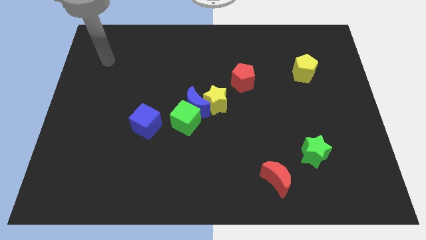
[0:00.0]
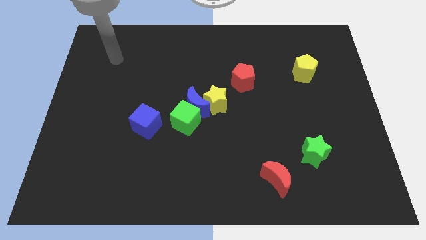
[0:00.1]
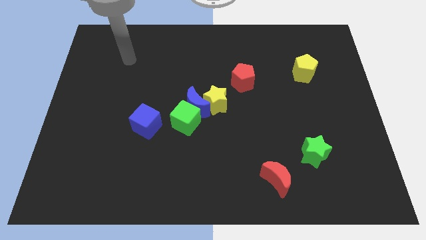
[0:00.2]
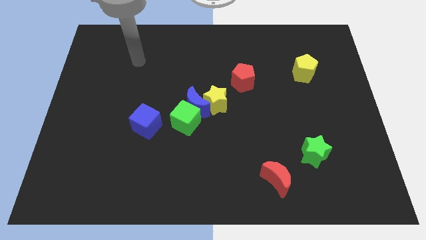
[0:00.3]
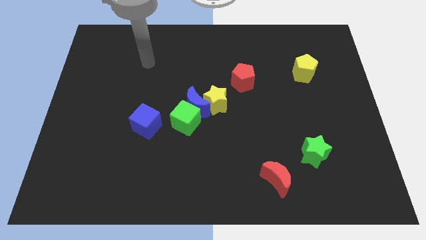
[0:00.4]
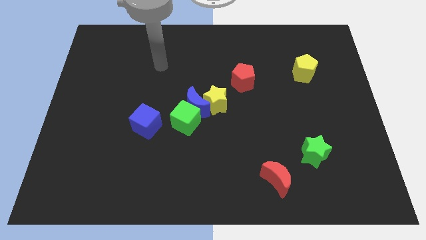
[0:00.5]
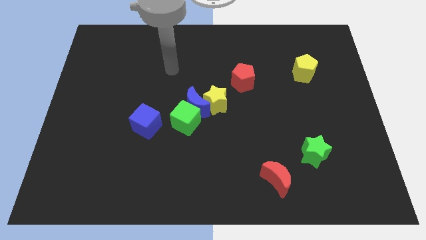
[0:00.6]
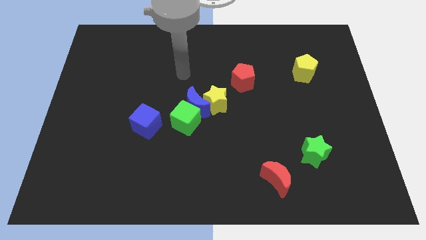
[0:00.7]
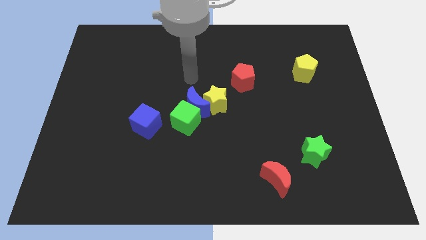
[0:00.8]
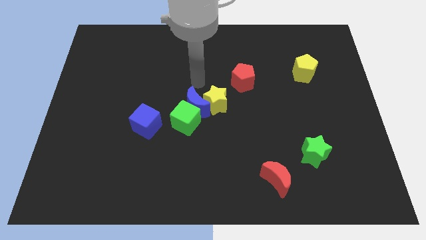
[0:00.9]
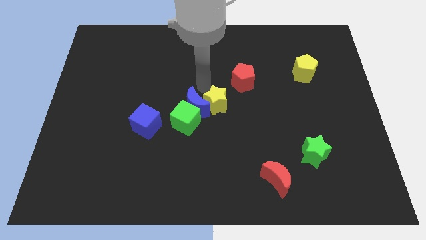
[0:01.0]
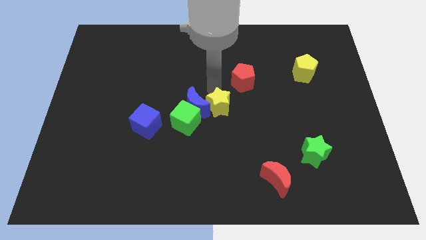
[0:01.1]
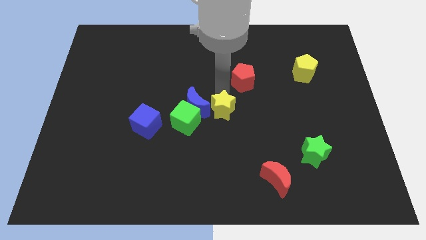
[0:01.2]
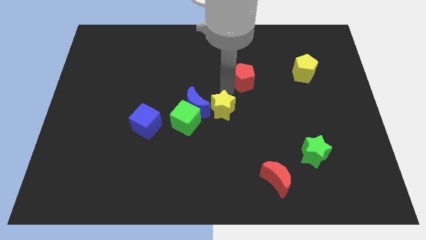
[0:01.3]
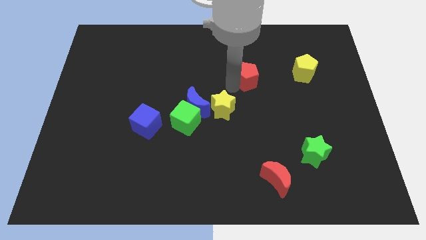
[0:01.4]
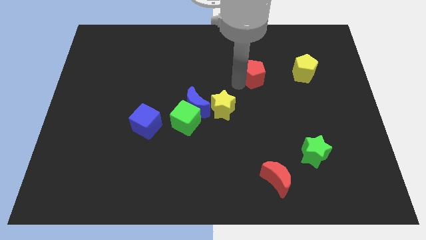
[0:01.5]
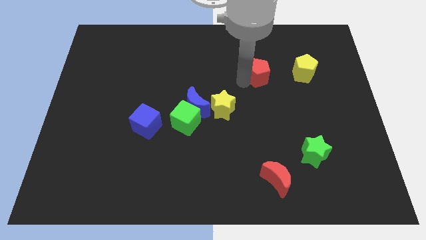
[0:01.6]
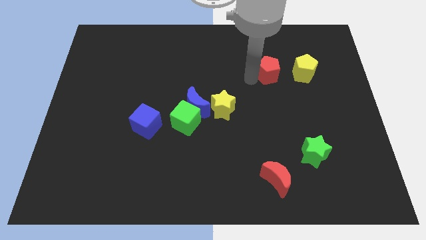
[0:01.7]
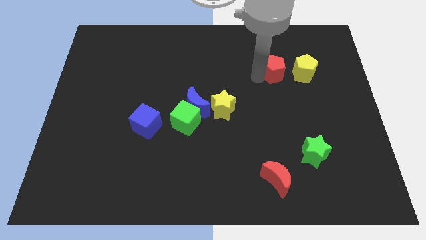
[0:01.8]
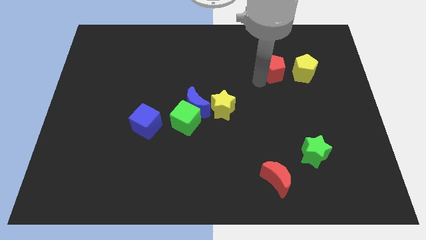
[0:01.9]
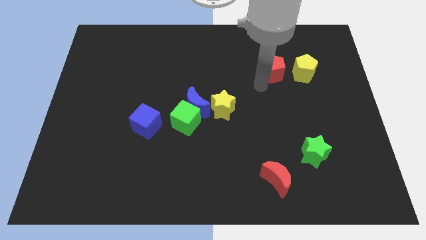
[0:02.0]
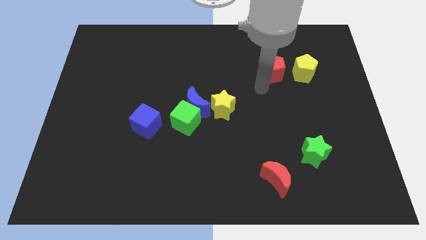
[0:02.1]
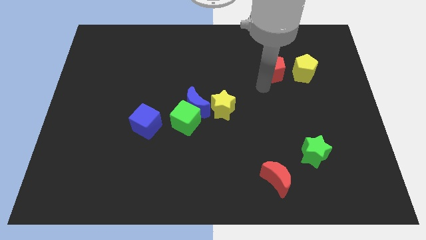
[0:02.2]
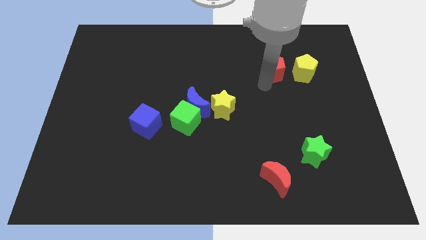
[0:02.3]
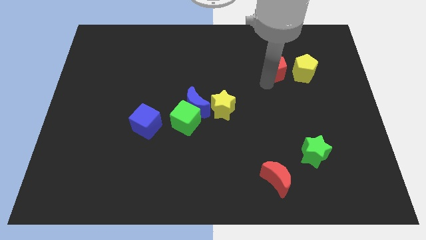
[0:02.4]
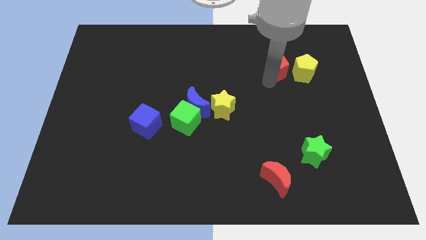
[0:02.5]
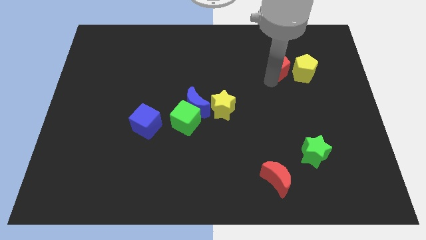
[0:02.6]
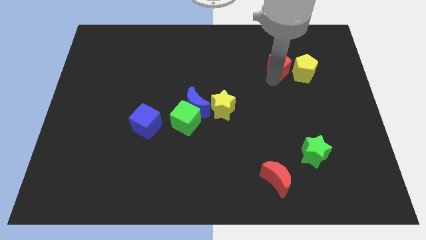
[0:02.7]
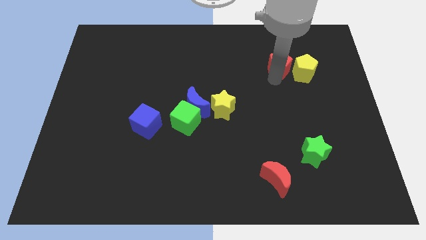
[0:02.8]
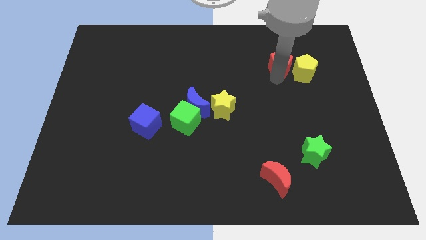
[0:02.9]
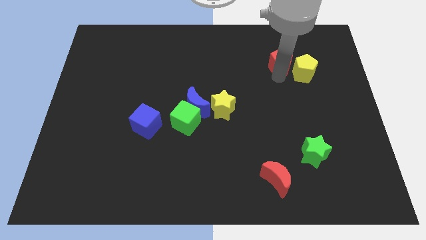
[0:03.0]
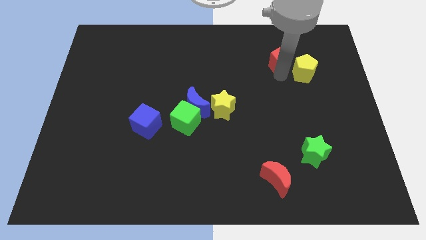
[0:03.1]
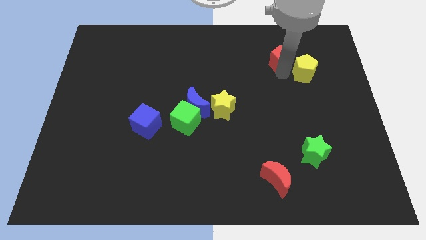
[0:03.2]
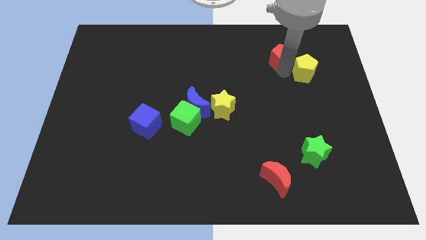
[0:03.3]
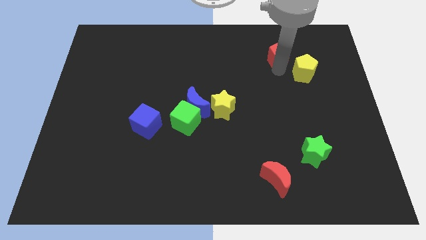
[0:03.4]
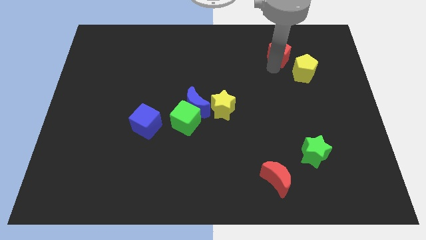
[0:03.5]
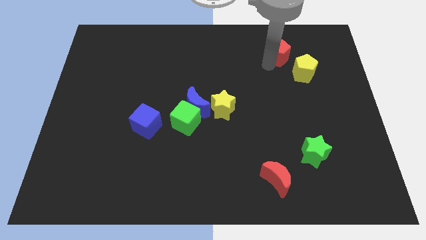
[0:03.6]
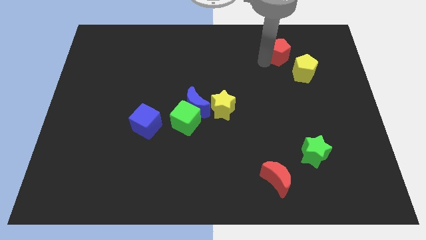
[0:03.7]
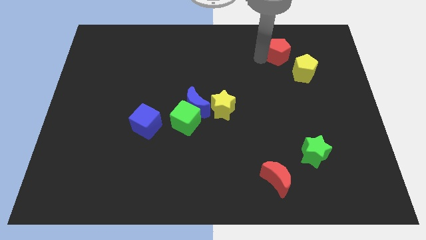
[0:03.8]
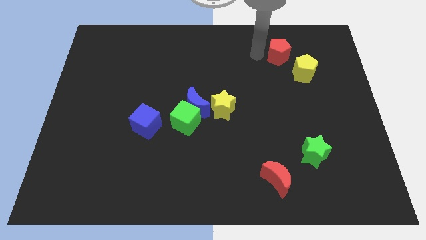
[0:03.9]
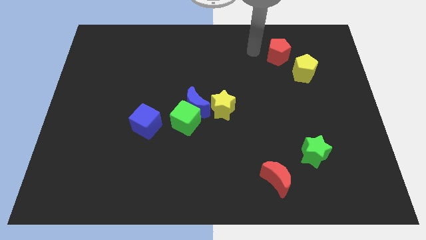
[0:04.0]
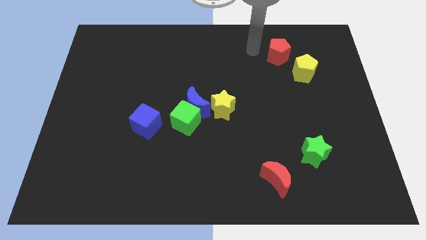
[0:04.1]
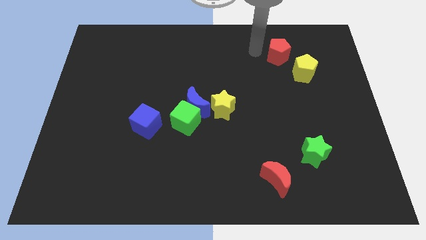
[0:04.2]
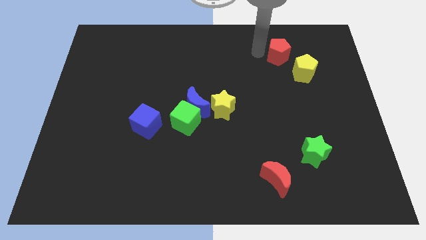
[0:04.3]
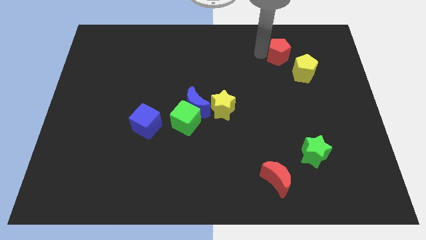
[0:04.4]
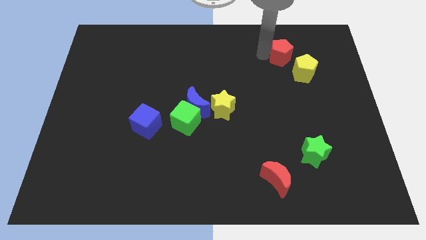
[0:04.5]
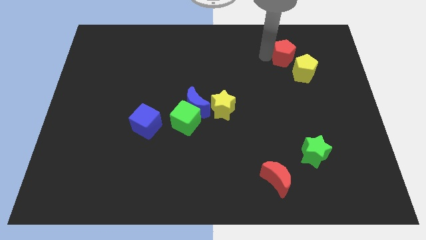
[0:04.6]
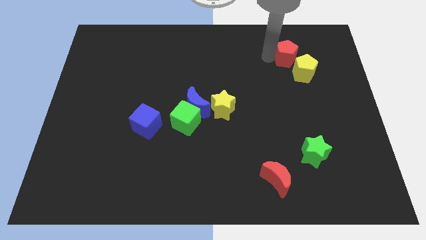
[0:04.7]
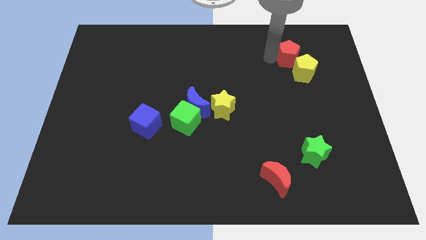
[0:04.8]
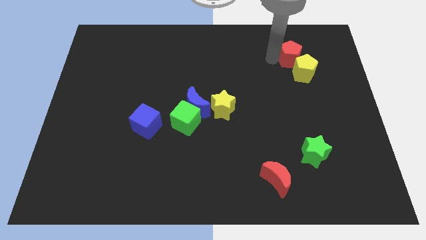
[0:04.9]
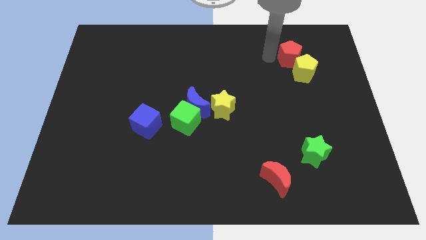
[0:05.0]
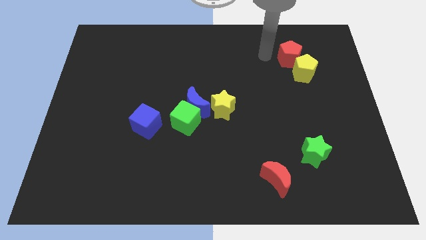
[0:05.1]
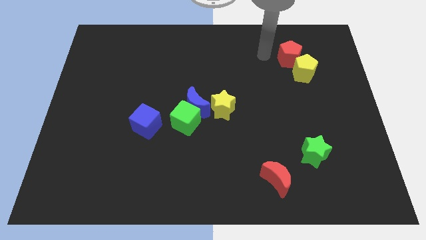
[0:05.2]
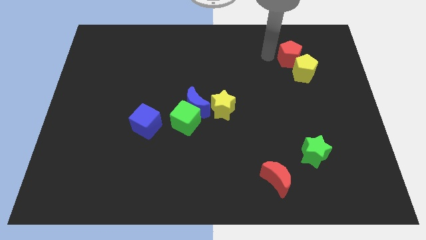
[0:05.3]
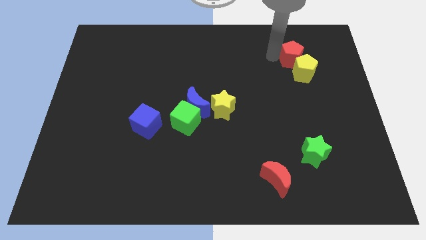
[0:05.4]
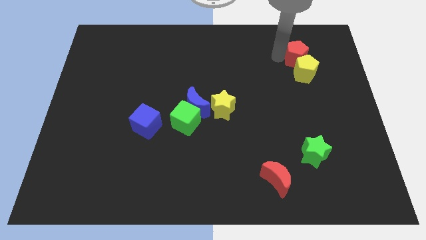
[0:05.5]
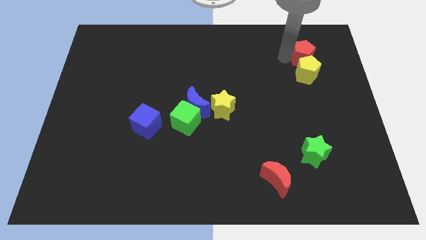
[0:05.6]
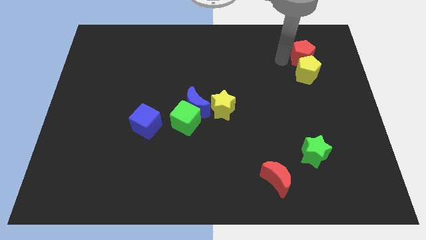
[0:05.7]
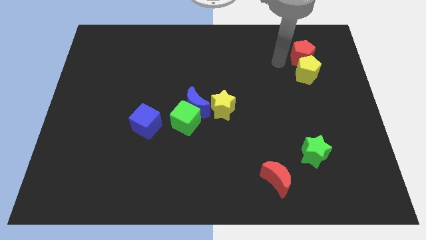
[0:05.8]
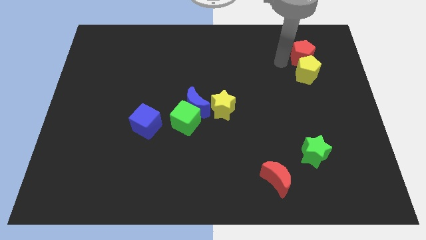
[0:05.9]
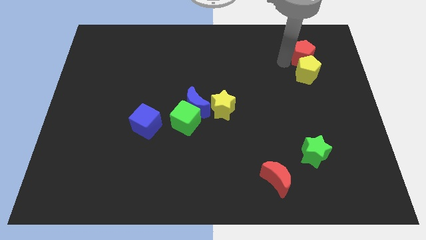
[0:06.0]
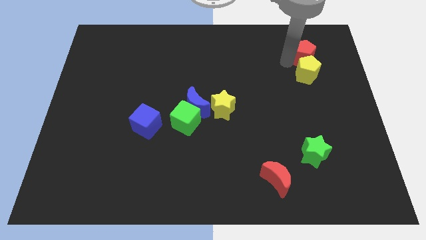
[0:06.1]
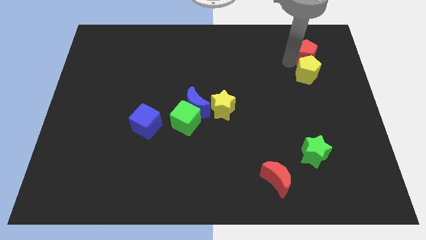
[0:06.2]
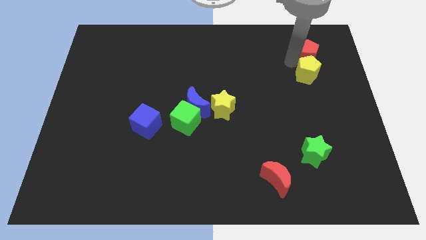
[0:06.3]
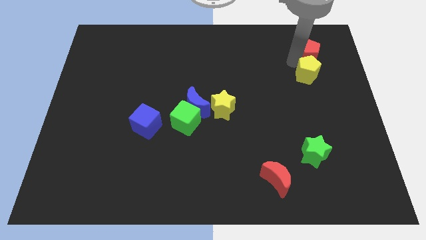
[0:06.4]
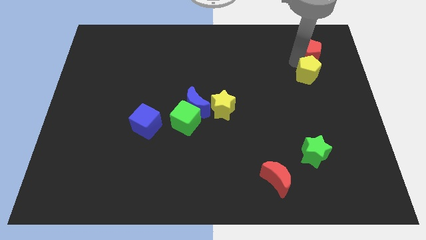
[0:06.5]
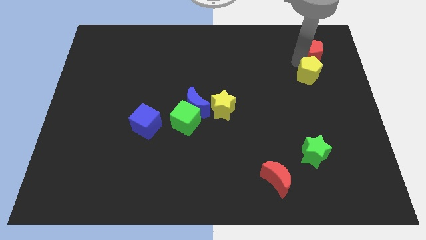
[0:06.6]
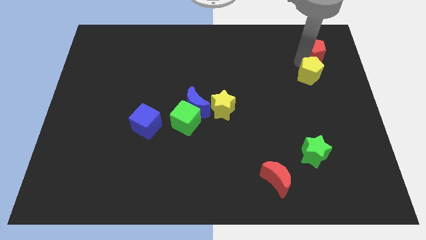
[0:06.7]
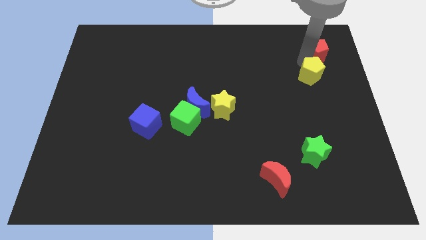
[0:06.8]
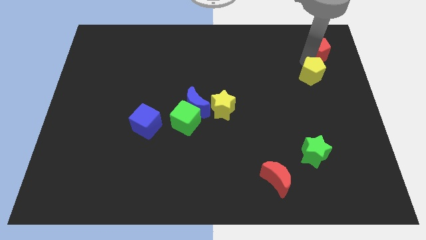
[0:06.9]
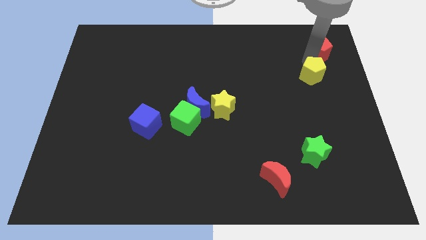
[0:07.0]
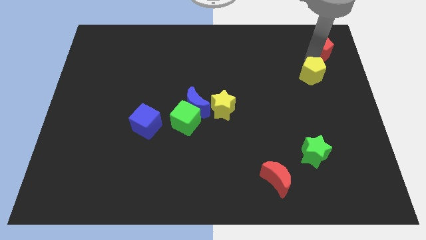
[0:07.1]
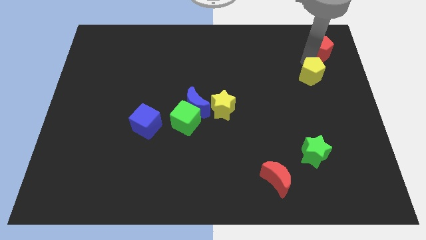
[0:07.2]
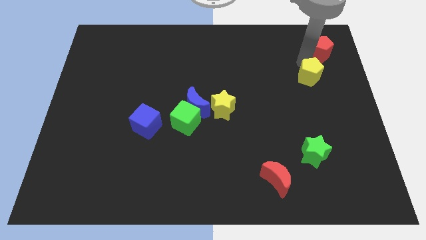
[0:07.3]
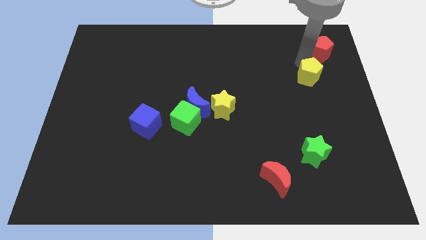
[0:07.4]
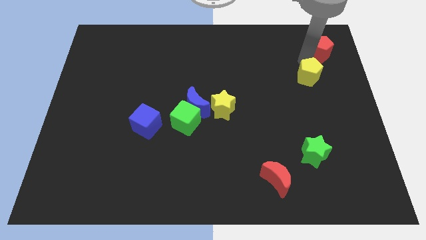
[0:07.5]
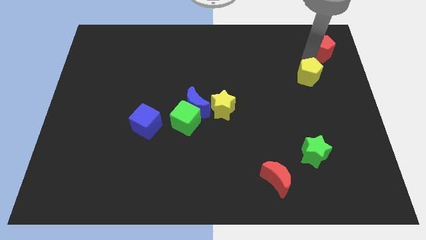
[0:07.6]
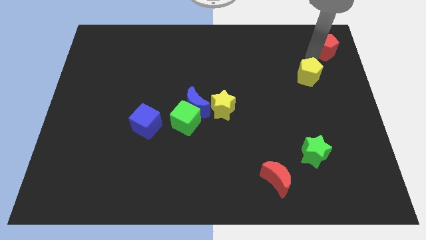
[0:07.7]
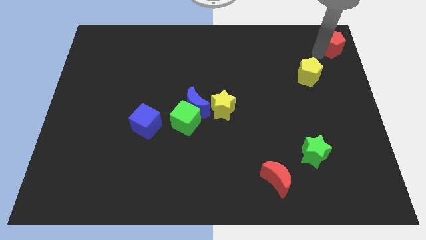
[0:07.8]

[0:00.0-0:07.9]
slide the red pentagon to the upper right corner
